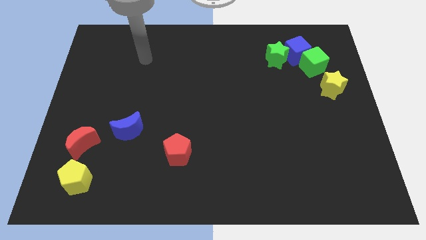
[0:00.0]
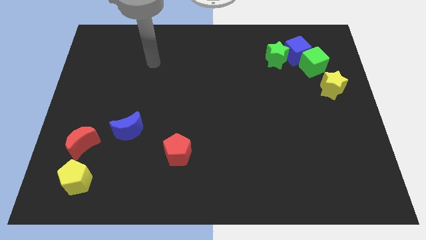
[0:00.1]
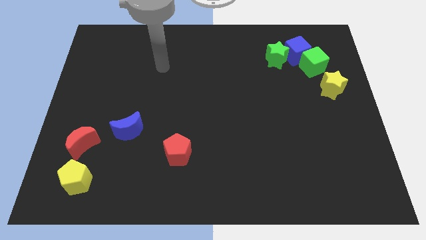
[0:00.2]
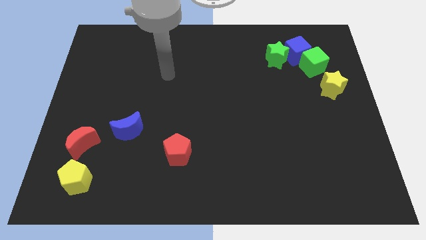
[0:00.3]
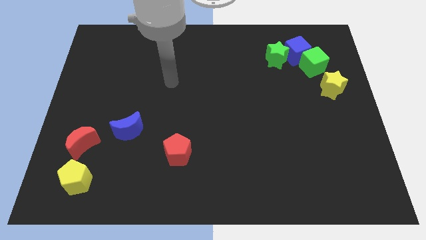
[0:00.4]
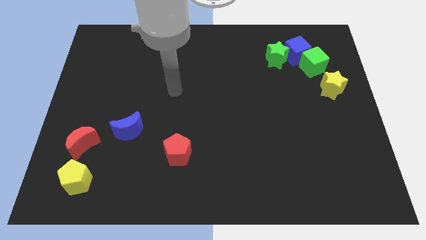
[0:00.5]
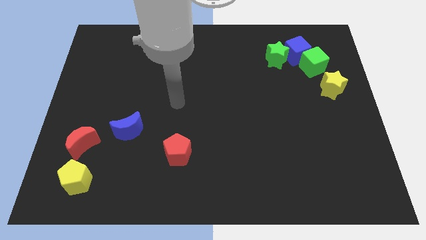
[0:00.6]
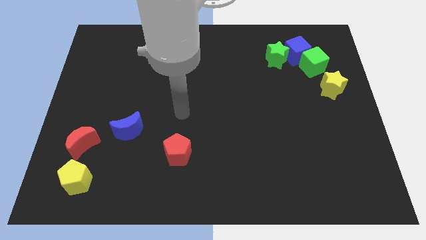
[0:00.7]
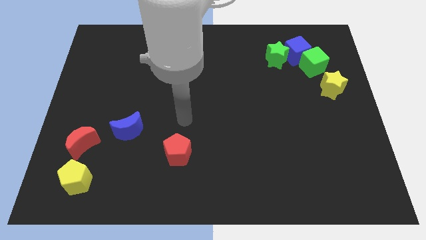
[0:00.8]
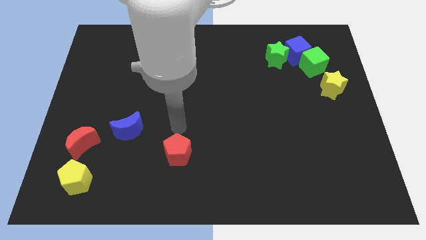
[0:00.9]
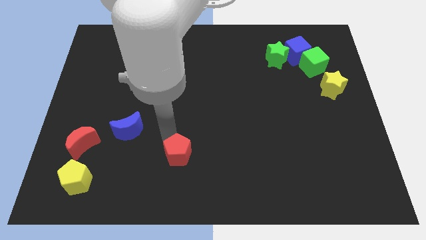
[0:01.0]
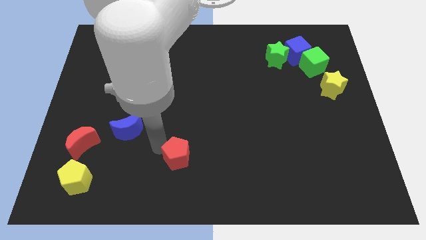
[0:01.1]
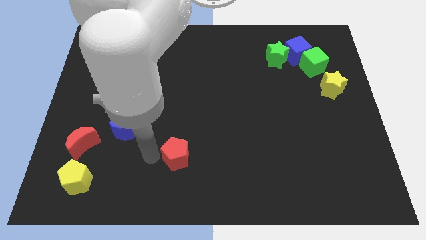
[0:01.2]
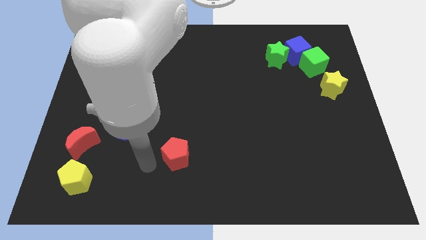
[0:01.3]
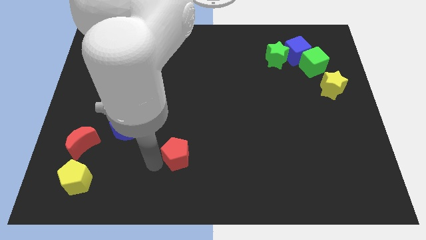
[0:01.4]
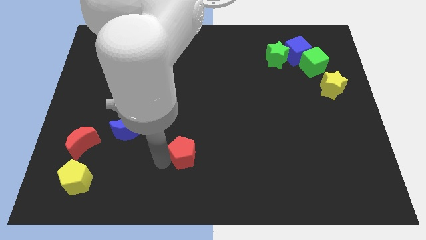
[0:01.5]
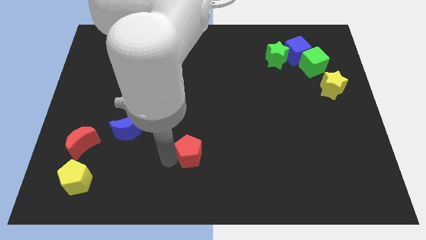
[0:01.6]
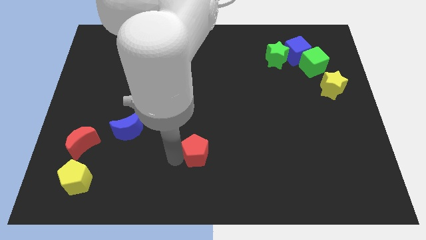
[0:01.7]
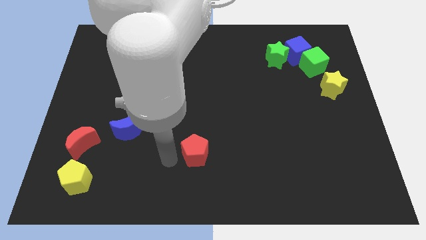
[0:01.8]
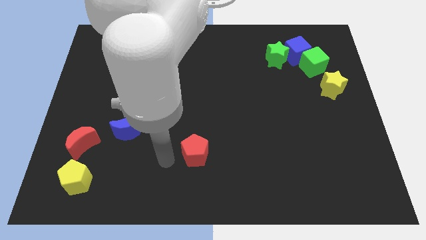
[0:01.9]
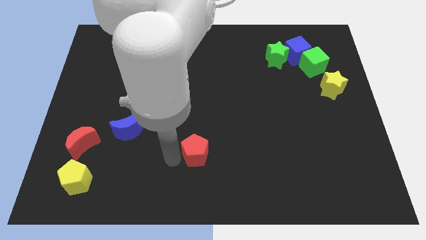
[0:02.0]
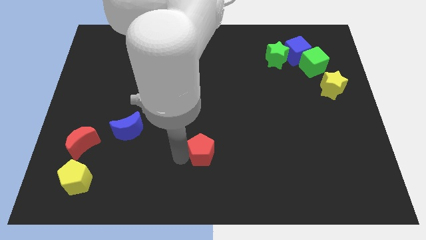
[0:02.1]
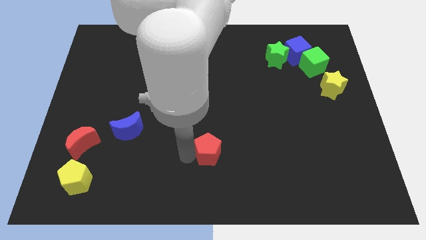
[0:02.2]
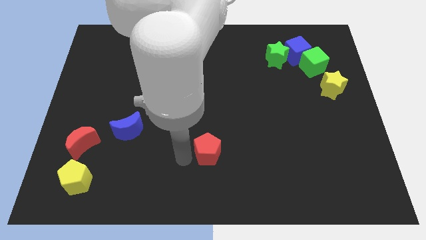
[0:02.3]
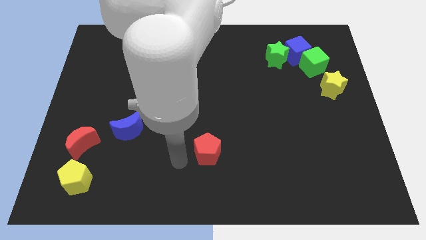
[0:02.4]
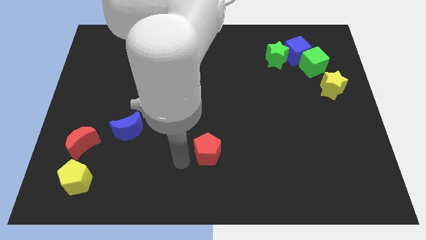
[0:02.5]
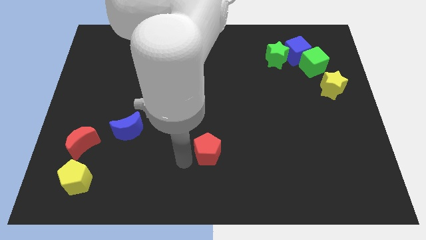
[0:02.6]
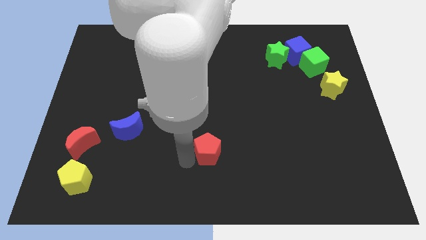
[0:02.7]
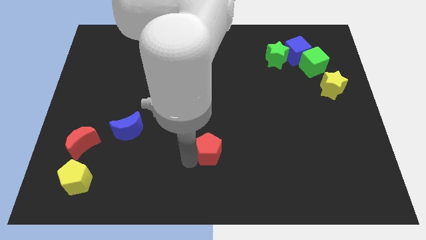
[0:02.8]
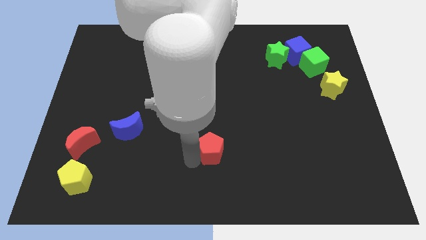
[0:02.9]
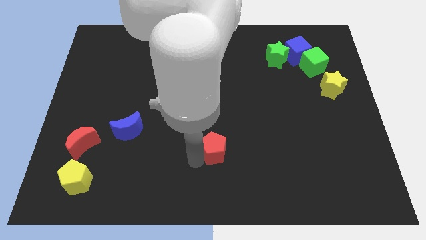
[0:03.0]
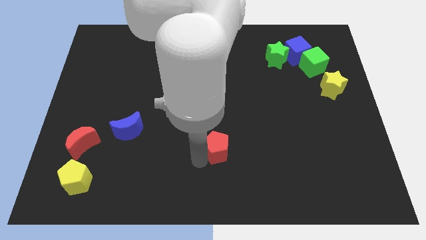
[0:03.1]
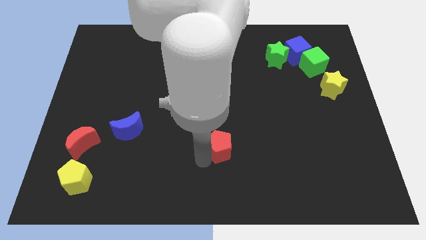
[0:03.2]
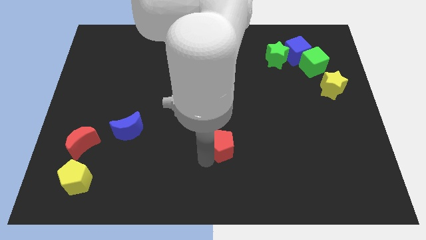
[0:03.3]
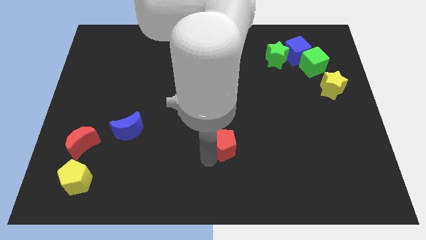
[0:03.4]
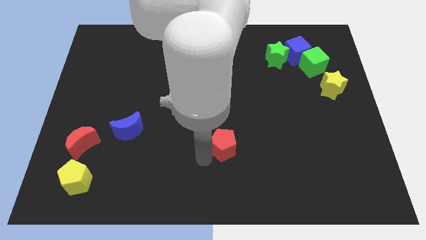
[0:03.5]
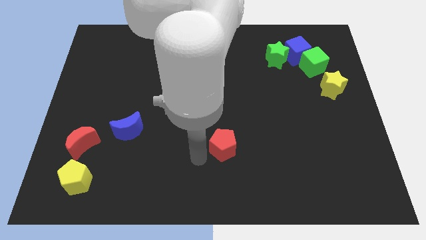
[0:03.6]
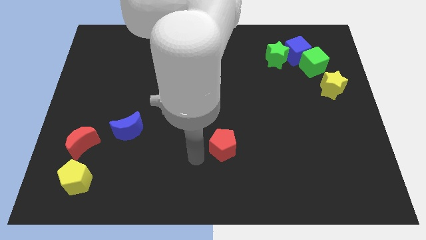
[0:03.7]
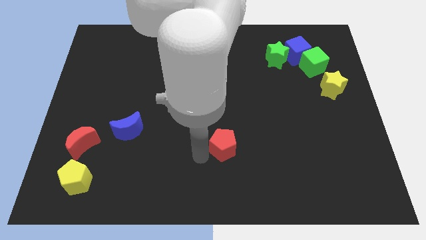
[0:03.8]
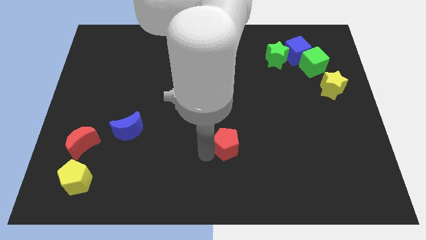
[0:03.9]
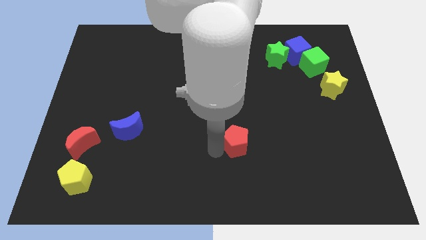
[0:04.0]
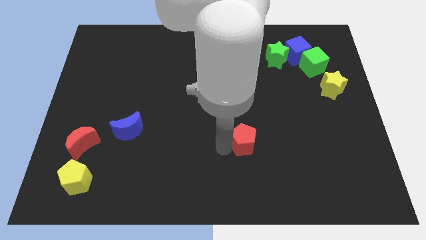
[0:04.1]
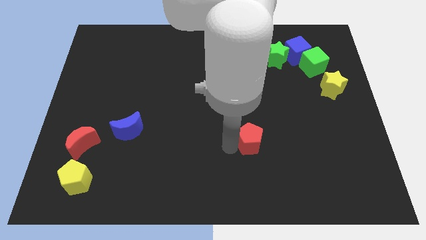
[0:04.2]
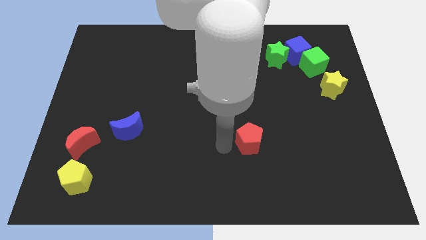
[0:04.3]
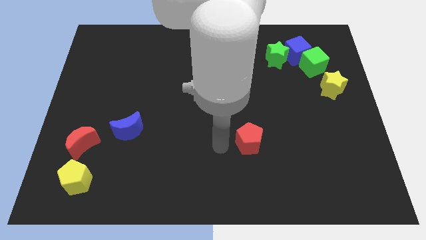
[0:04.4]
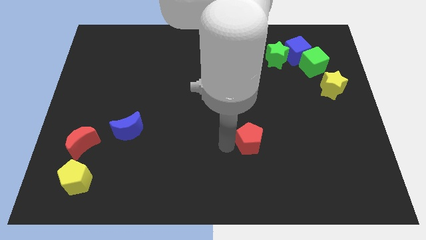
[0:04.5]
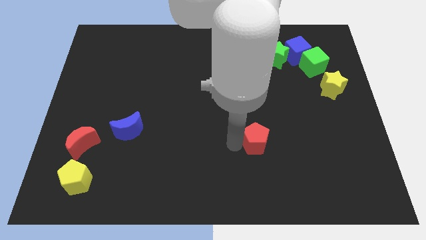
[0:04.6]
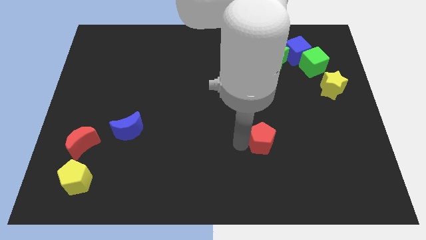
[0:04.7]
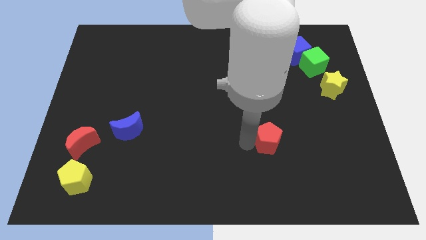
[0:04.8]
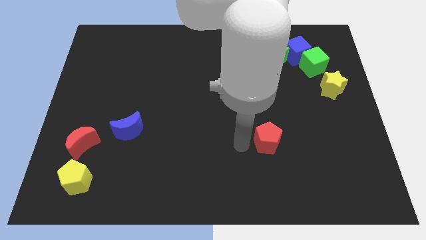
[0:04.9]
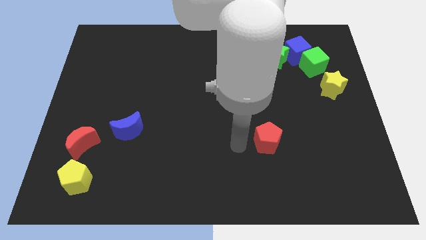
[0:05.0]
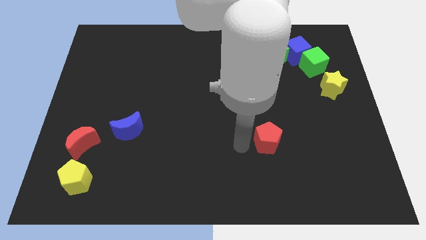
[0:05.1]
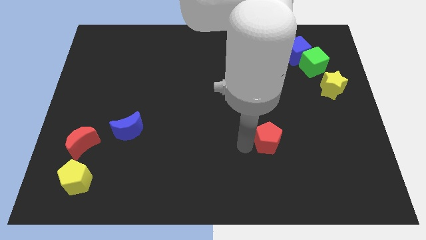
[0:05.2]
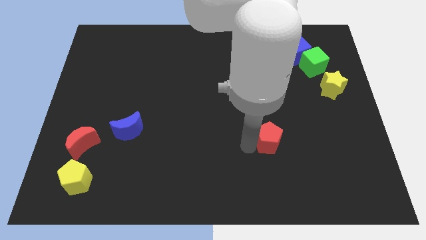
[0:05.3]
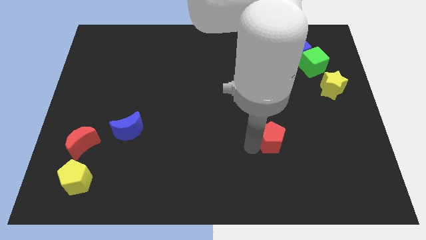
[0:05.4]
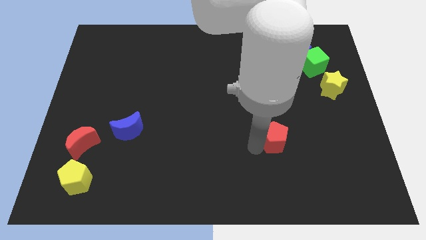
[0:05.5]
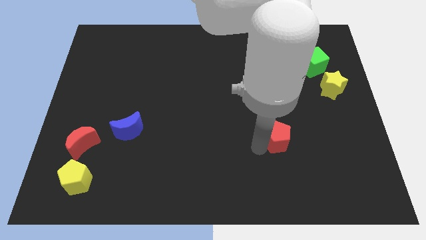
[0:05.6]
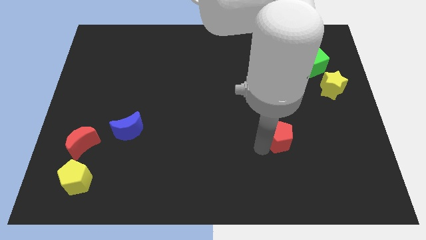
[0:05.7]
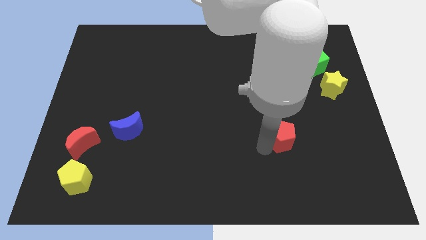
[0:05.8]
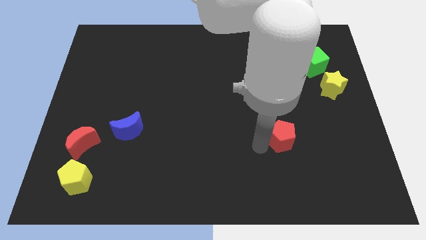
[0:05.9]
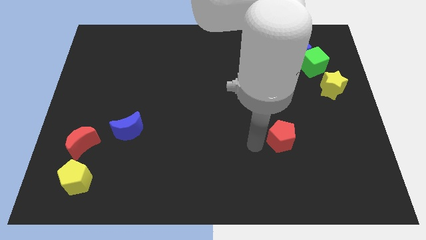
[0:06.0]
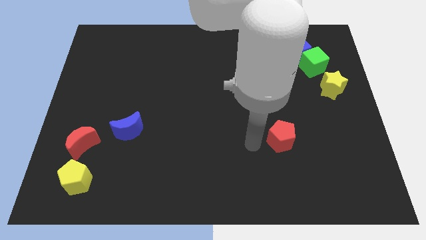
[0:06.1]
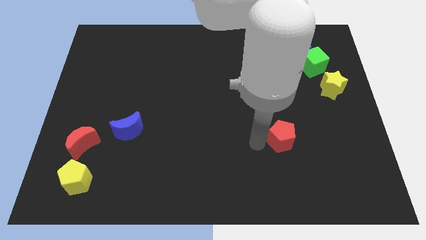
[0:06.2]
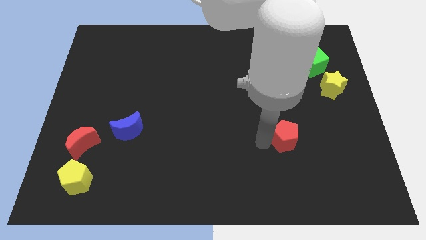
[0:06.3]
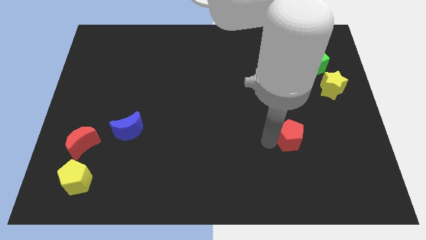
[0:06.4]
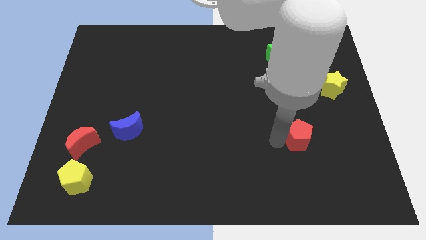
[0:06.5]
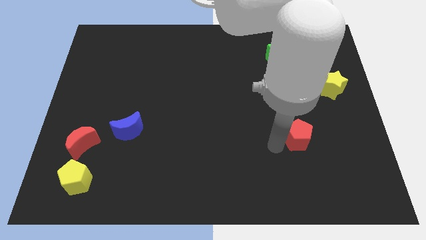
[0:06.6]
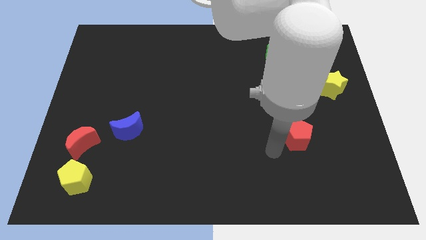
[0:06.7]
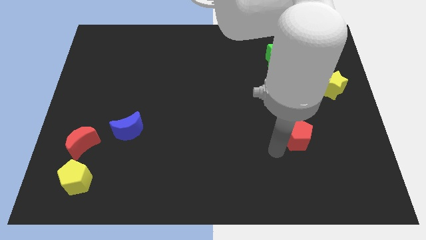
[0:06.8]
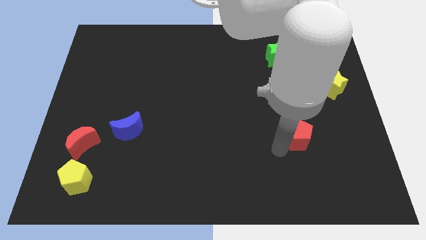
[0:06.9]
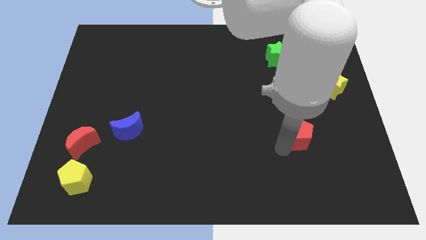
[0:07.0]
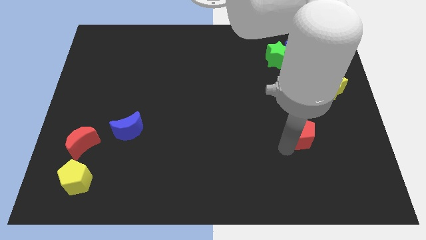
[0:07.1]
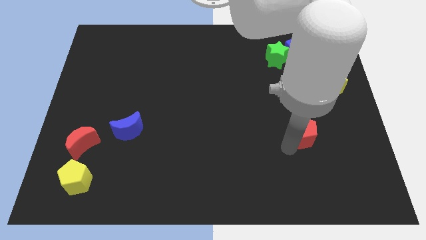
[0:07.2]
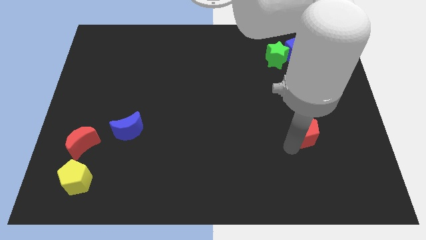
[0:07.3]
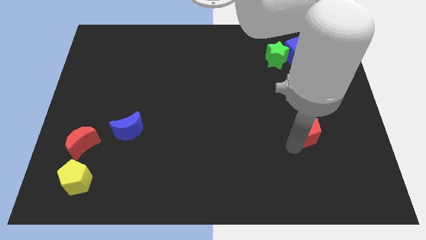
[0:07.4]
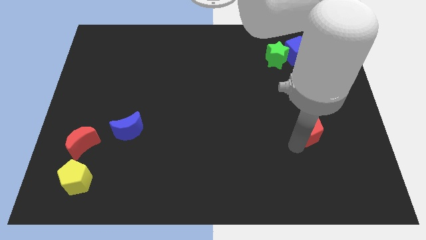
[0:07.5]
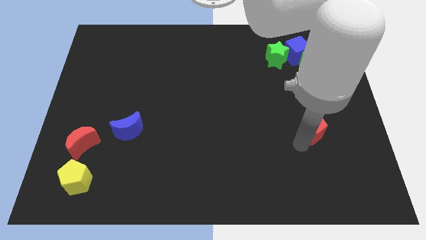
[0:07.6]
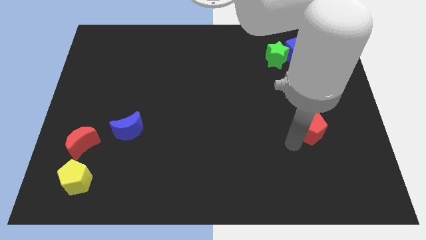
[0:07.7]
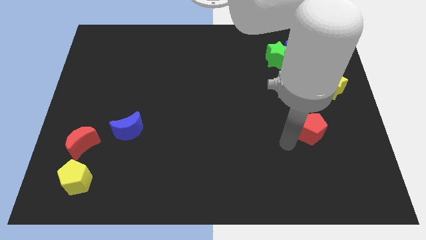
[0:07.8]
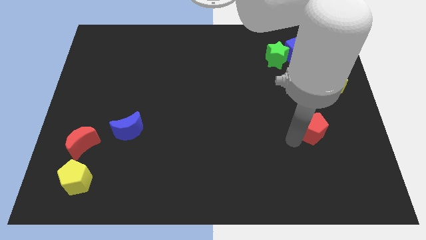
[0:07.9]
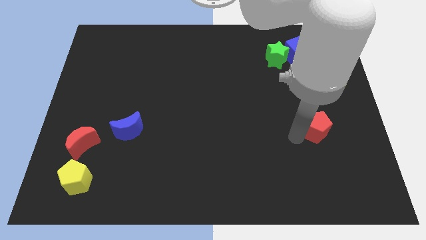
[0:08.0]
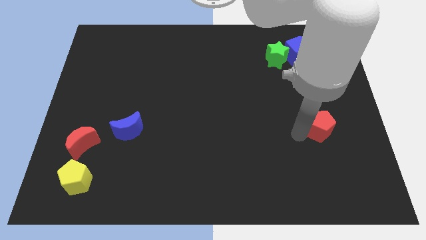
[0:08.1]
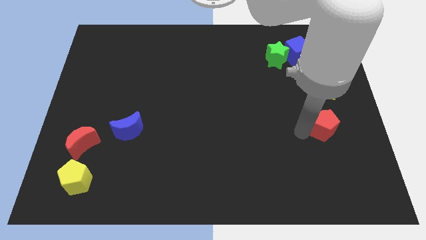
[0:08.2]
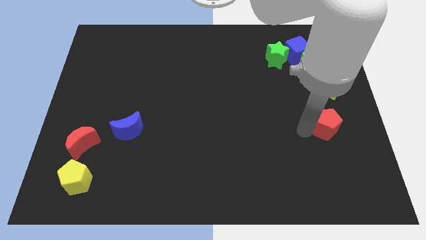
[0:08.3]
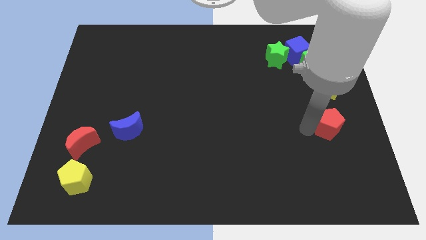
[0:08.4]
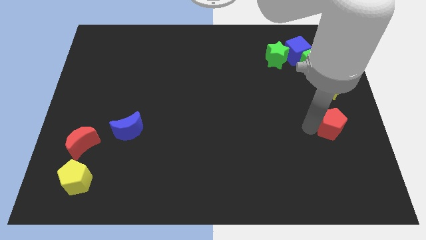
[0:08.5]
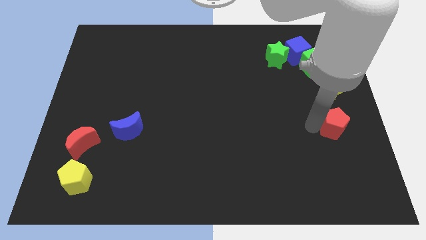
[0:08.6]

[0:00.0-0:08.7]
move the red pentagon to the right side
